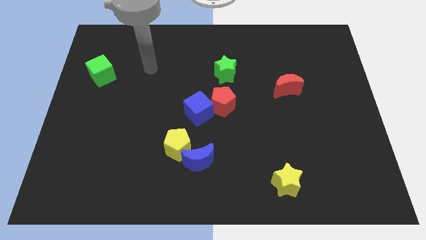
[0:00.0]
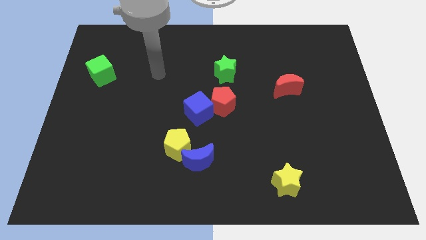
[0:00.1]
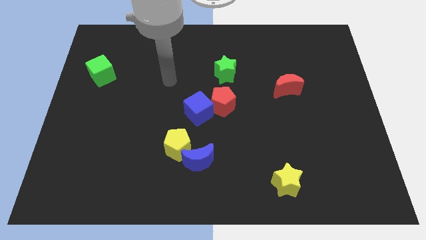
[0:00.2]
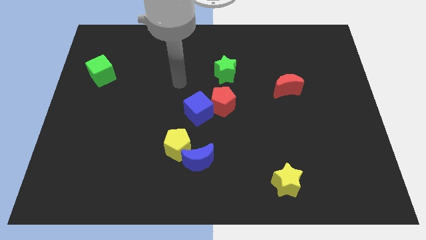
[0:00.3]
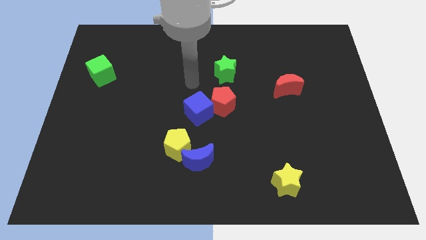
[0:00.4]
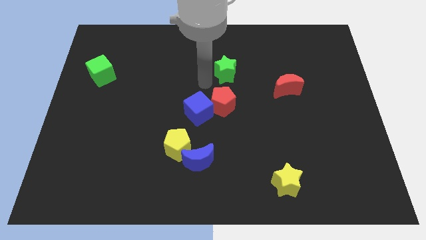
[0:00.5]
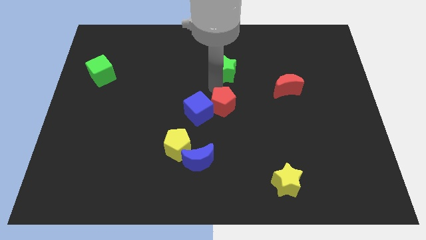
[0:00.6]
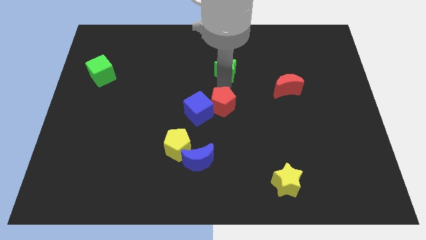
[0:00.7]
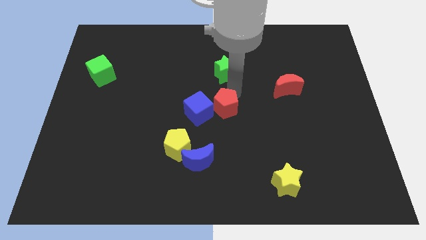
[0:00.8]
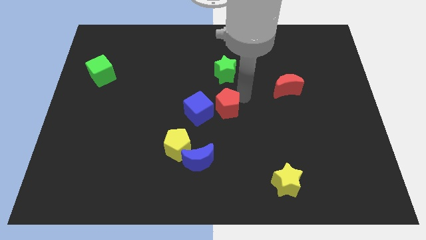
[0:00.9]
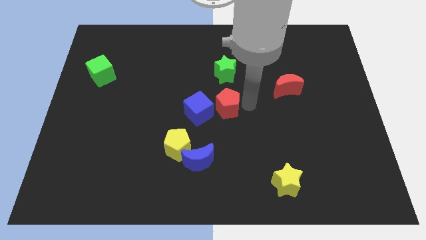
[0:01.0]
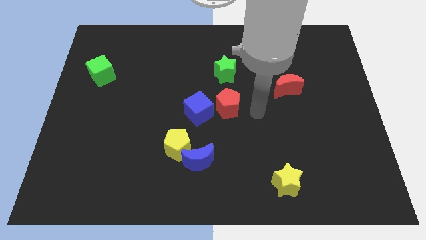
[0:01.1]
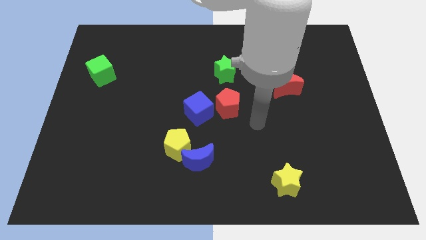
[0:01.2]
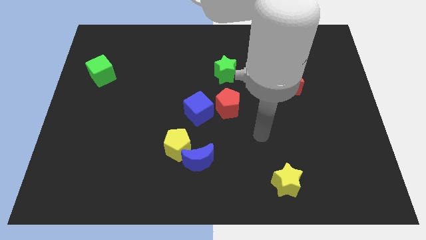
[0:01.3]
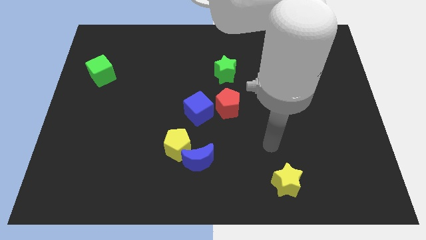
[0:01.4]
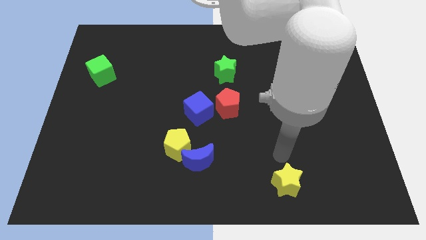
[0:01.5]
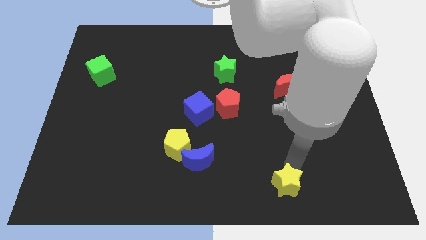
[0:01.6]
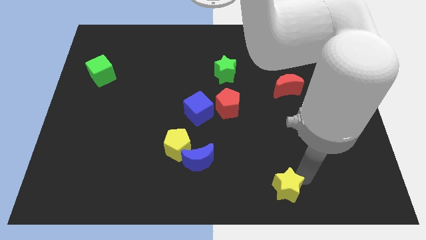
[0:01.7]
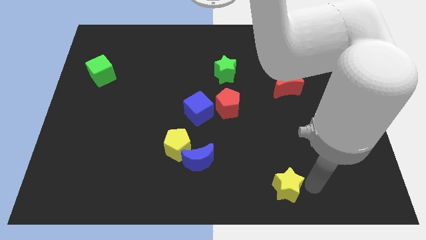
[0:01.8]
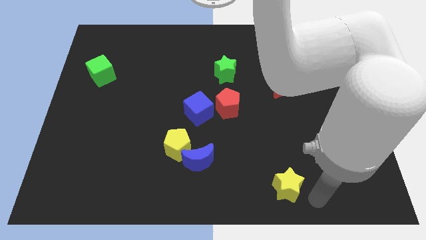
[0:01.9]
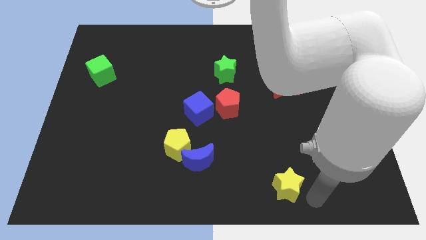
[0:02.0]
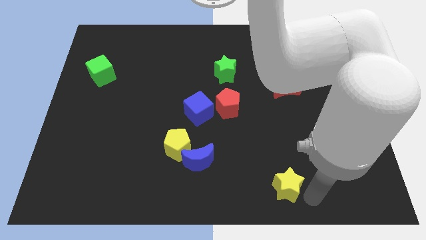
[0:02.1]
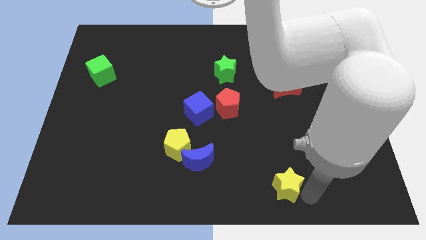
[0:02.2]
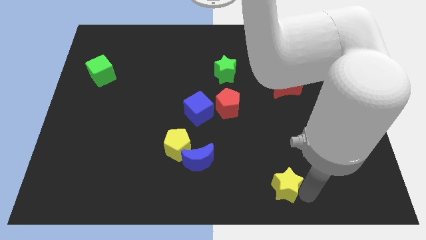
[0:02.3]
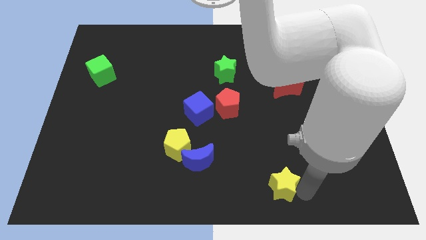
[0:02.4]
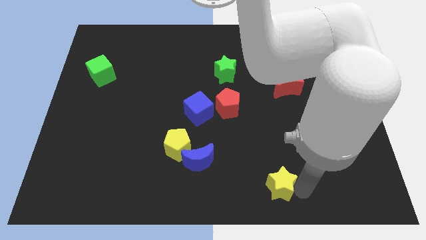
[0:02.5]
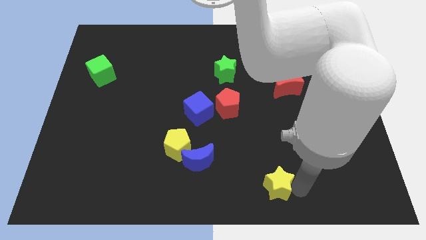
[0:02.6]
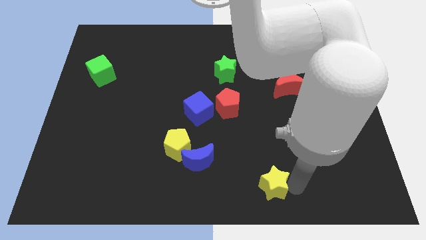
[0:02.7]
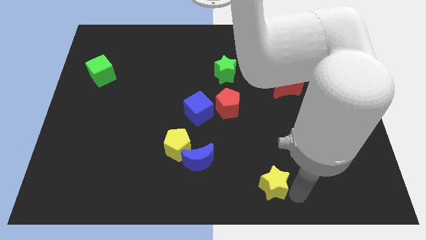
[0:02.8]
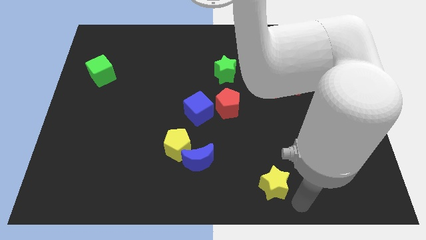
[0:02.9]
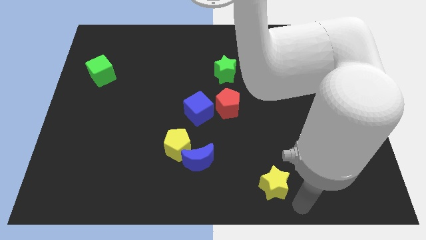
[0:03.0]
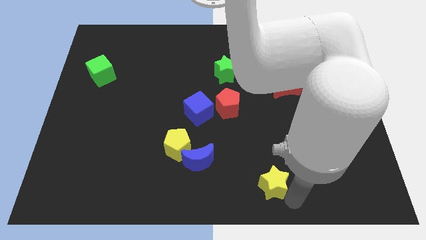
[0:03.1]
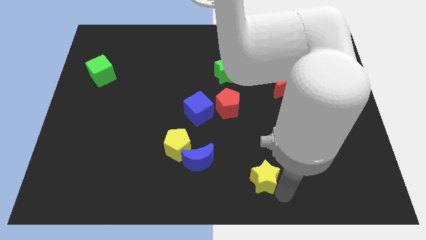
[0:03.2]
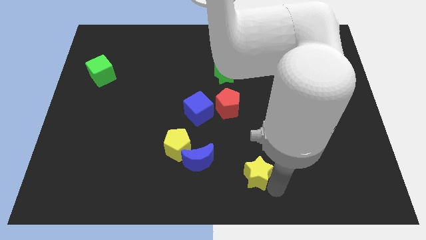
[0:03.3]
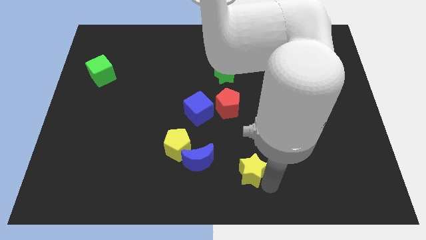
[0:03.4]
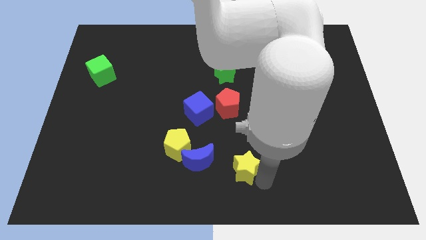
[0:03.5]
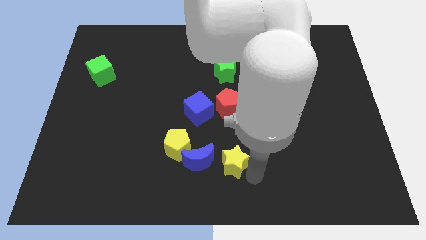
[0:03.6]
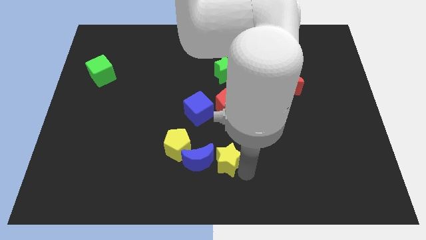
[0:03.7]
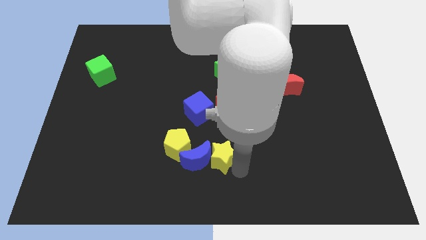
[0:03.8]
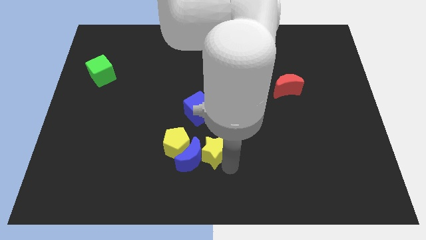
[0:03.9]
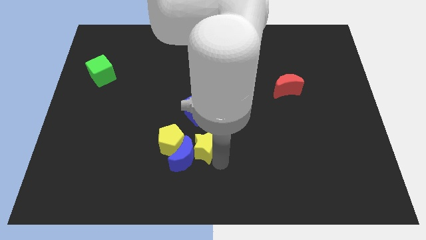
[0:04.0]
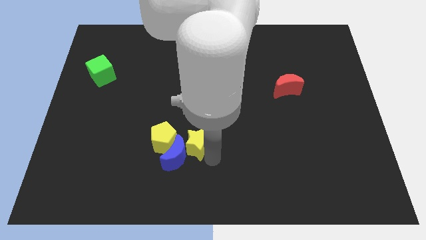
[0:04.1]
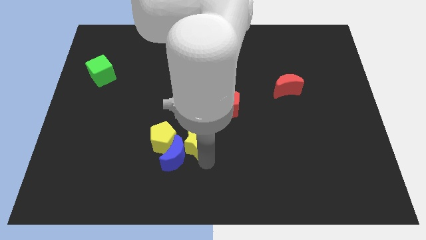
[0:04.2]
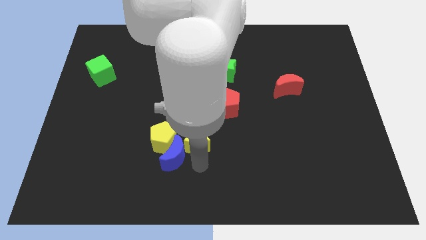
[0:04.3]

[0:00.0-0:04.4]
put the yellow star to the bottom left of the red pentagon

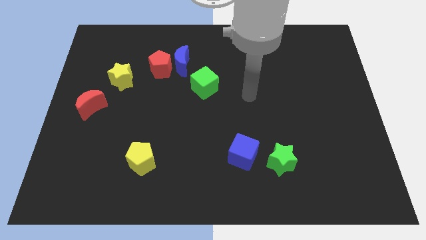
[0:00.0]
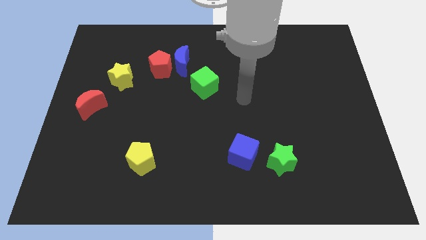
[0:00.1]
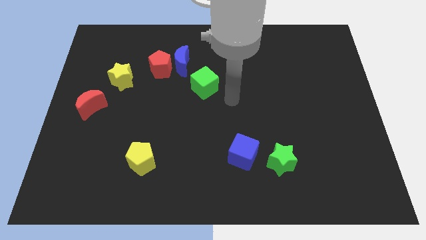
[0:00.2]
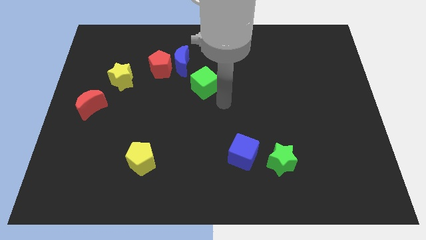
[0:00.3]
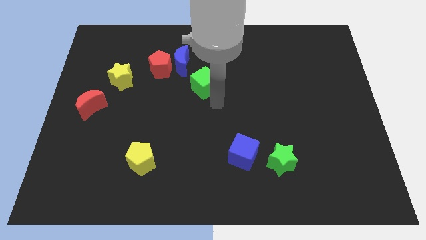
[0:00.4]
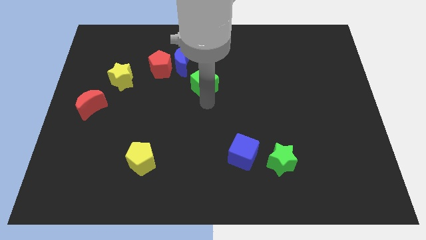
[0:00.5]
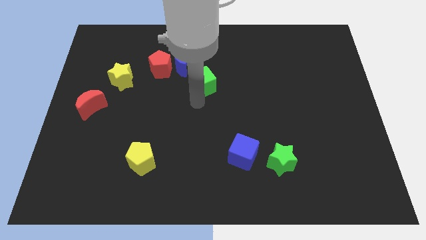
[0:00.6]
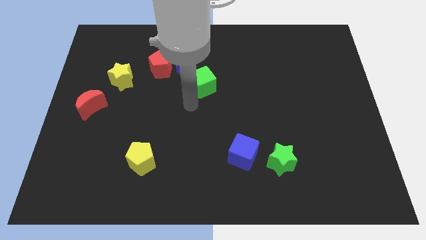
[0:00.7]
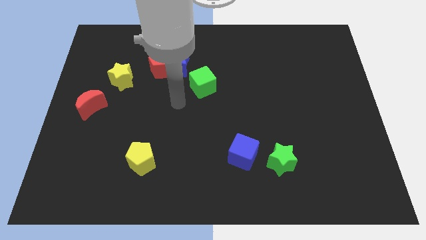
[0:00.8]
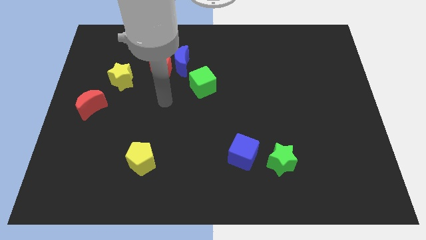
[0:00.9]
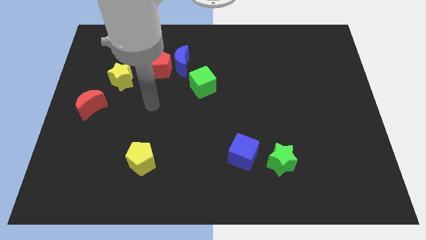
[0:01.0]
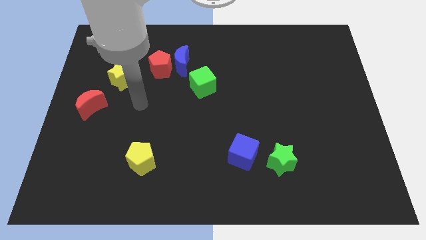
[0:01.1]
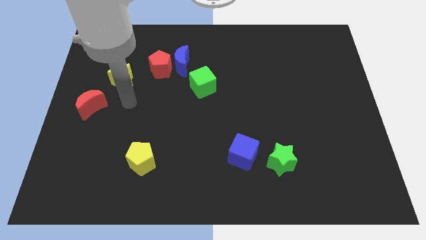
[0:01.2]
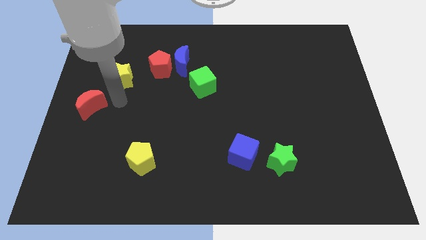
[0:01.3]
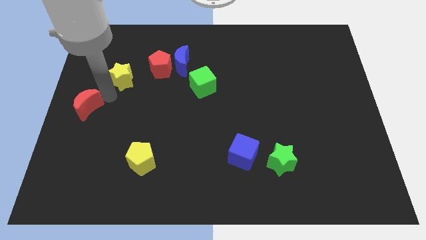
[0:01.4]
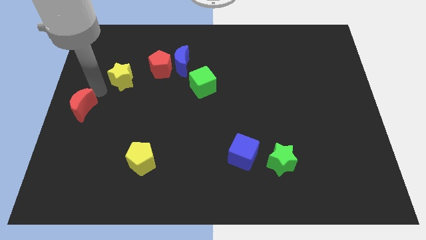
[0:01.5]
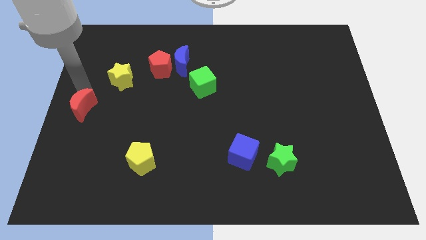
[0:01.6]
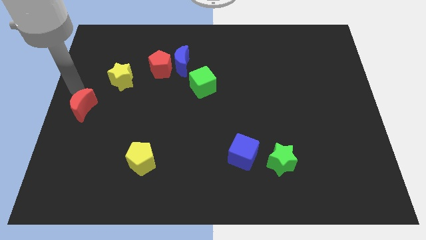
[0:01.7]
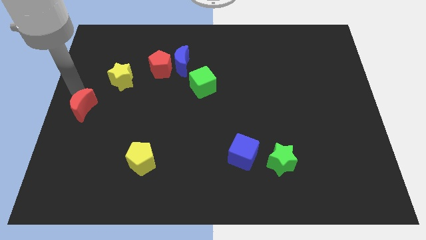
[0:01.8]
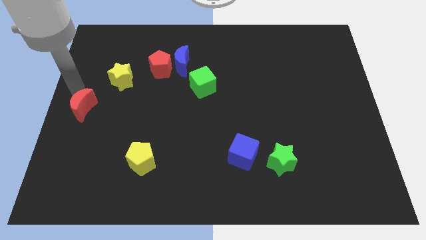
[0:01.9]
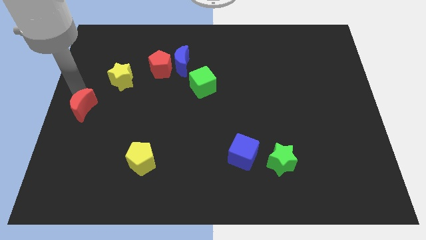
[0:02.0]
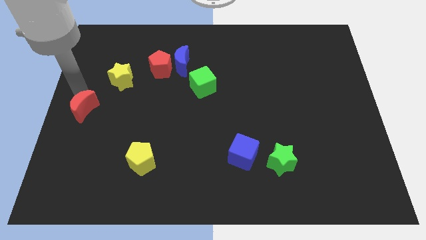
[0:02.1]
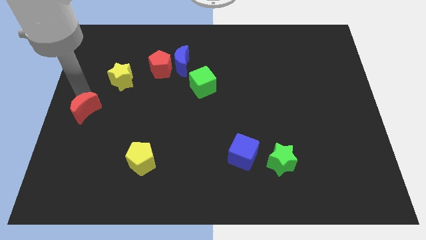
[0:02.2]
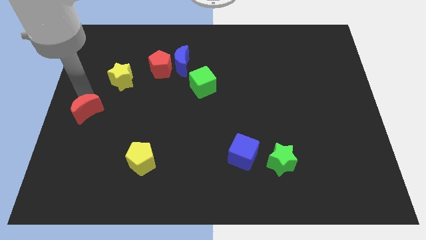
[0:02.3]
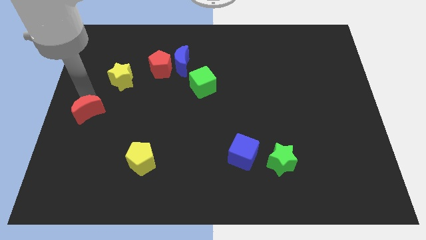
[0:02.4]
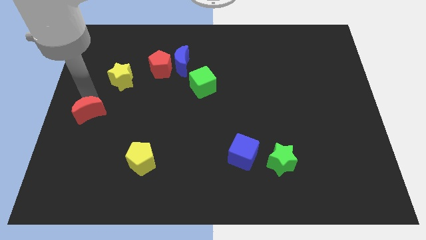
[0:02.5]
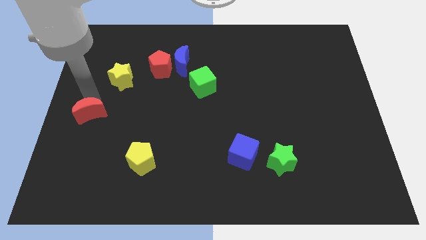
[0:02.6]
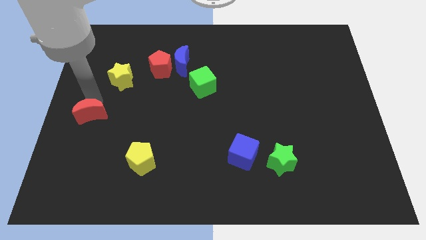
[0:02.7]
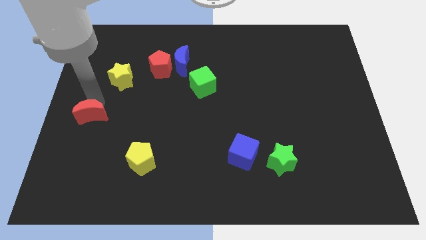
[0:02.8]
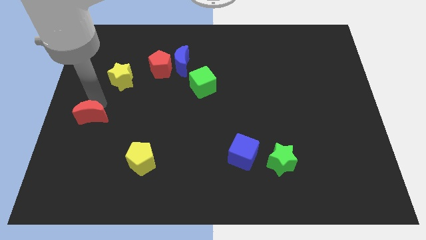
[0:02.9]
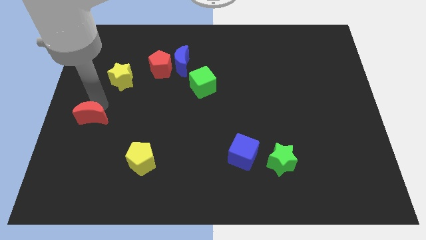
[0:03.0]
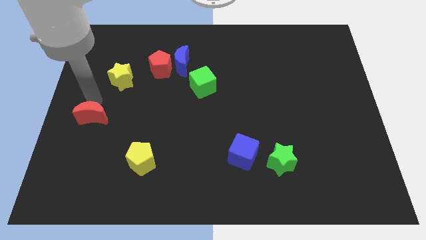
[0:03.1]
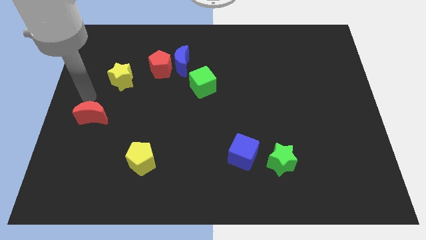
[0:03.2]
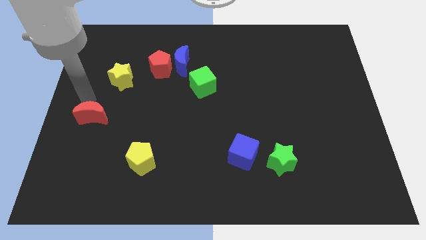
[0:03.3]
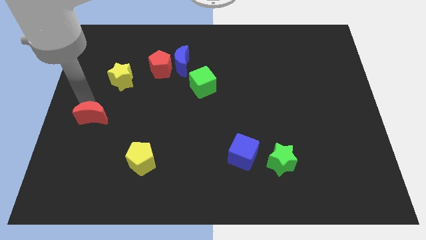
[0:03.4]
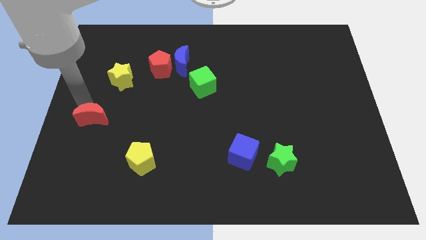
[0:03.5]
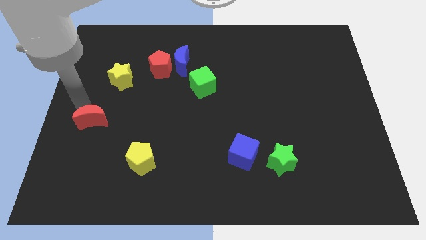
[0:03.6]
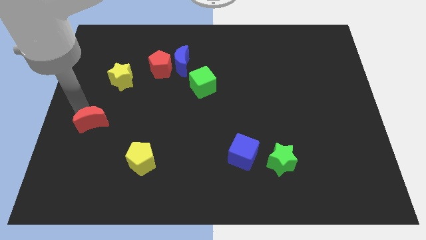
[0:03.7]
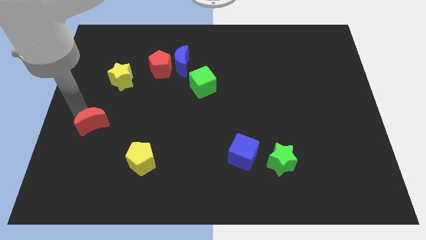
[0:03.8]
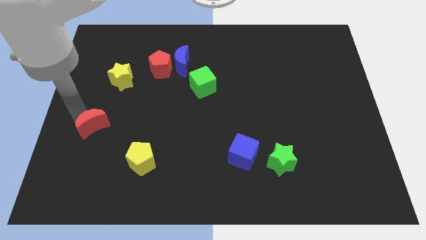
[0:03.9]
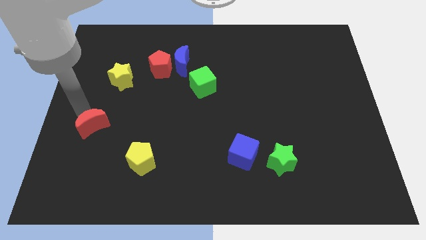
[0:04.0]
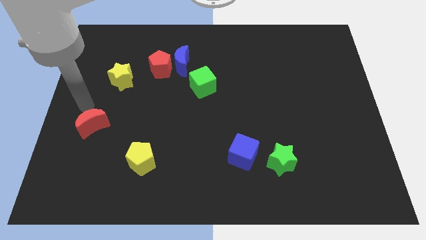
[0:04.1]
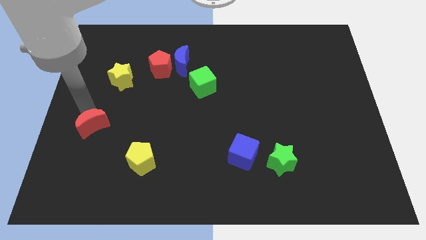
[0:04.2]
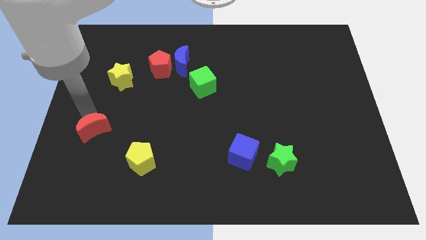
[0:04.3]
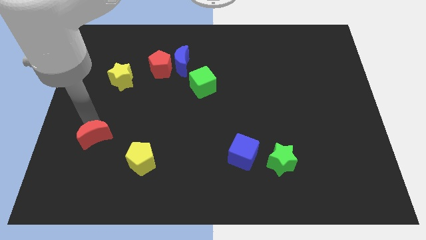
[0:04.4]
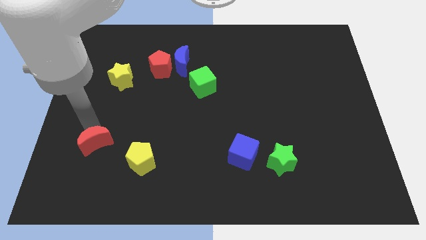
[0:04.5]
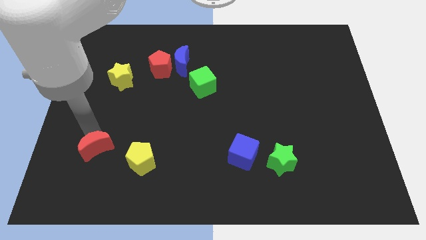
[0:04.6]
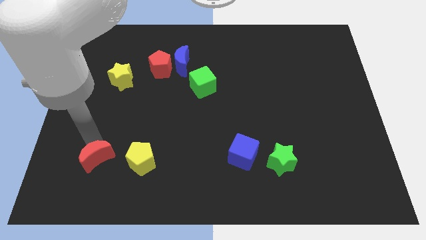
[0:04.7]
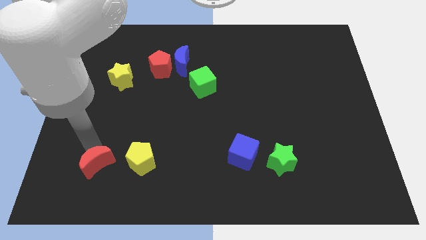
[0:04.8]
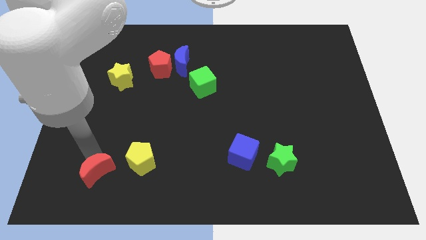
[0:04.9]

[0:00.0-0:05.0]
push the red moon to the bottom left of the yellow pentagon
